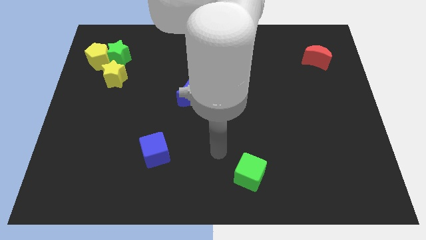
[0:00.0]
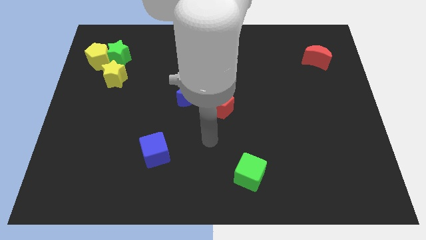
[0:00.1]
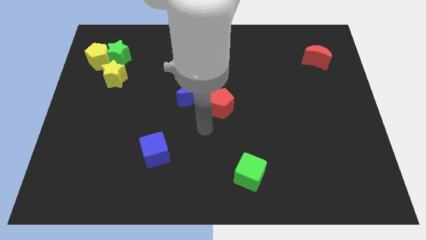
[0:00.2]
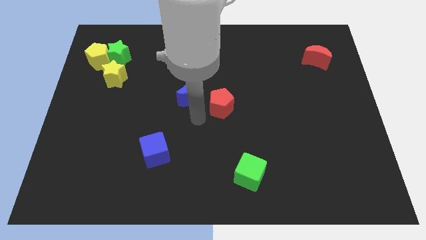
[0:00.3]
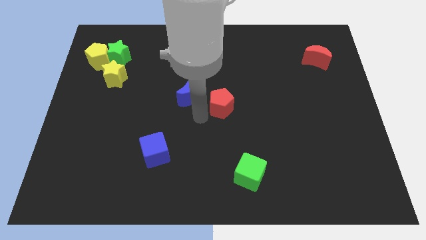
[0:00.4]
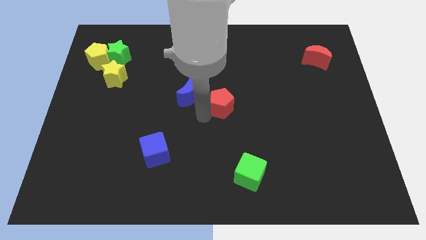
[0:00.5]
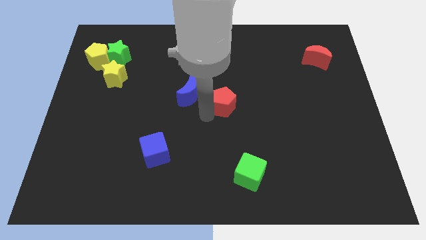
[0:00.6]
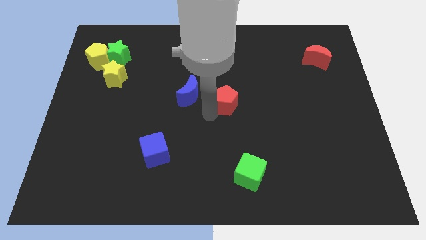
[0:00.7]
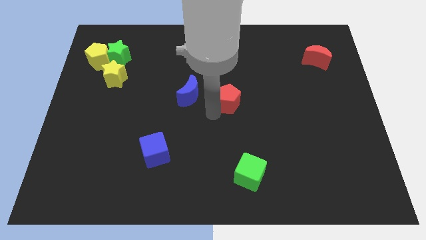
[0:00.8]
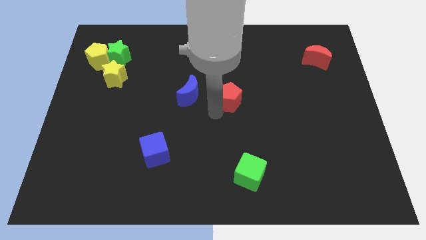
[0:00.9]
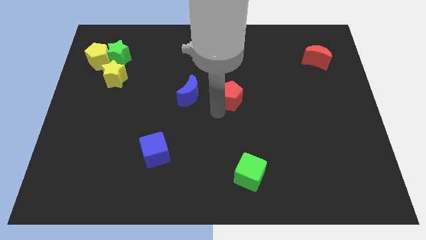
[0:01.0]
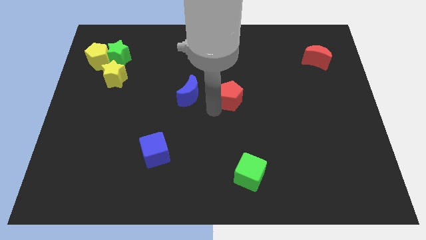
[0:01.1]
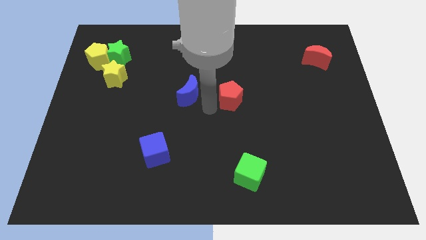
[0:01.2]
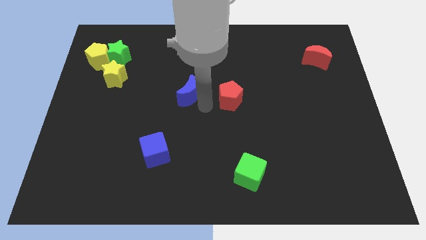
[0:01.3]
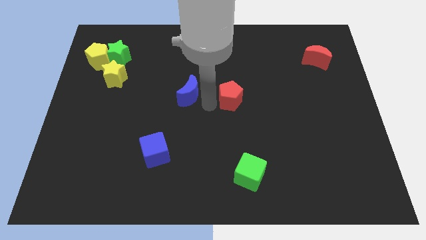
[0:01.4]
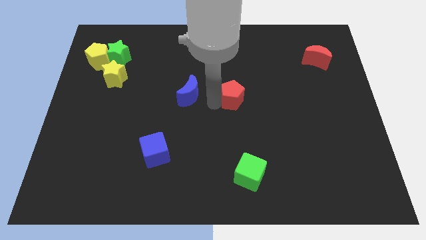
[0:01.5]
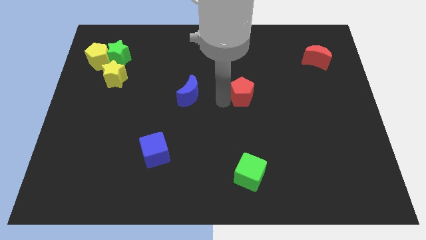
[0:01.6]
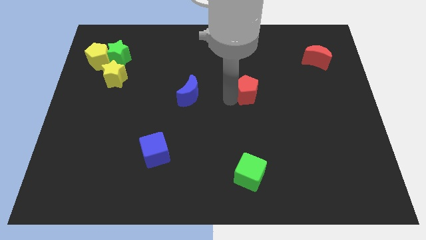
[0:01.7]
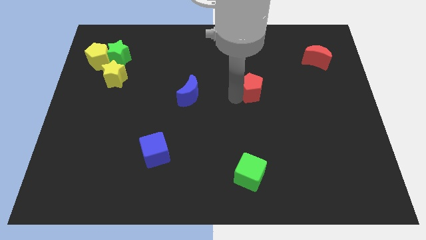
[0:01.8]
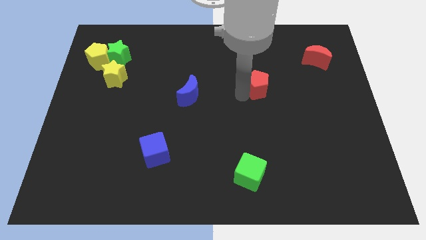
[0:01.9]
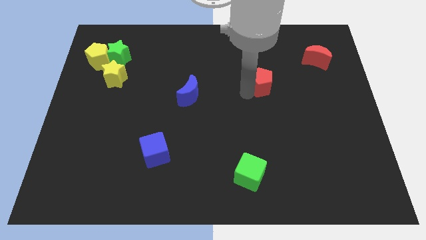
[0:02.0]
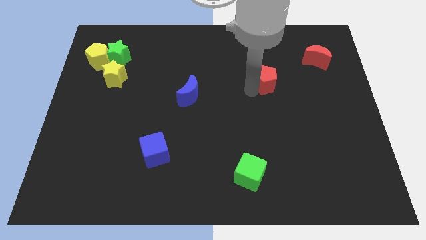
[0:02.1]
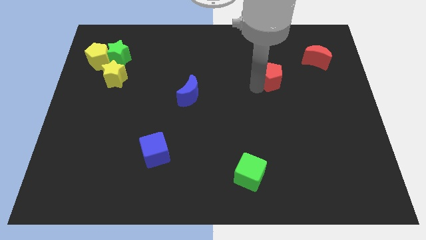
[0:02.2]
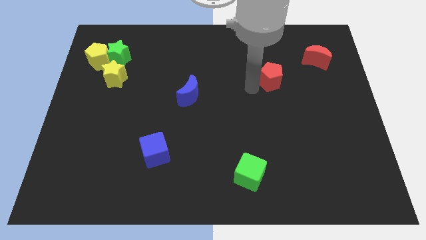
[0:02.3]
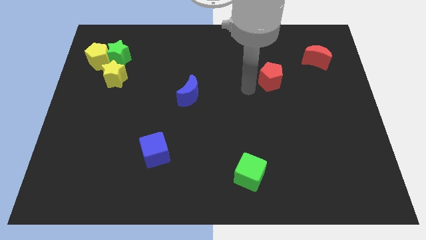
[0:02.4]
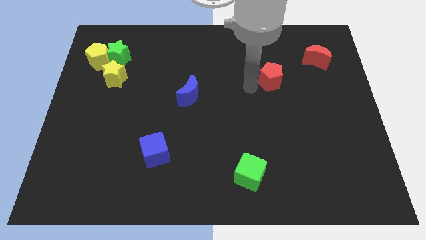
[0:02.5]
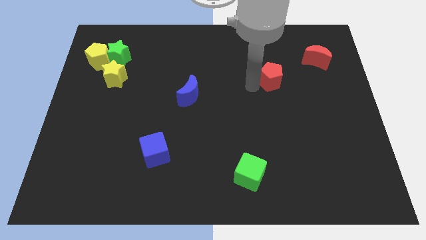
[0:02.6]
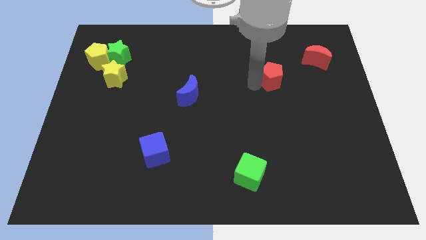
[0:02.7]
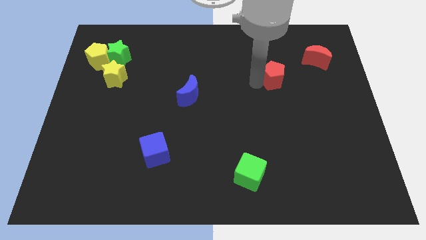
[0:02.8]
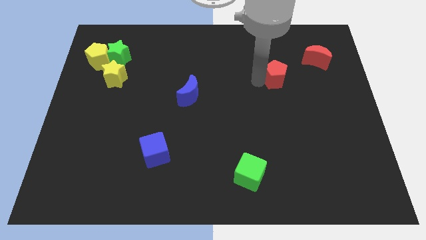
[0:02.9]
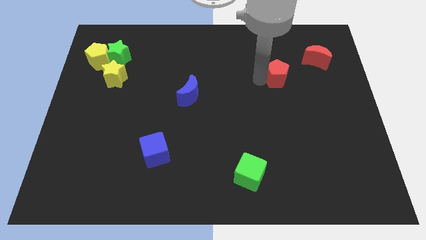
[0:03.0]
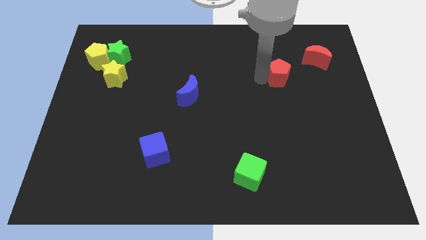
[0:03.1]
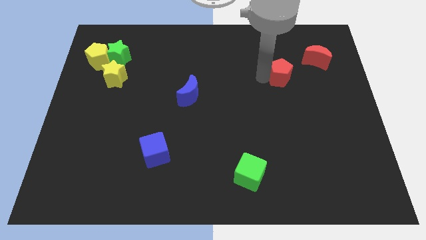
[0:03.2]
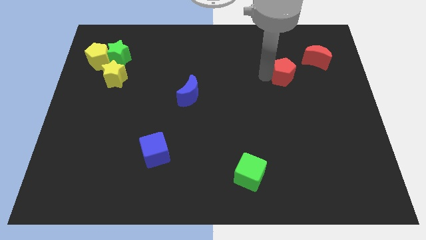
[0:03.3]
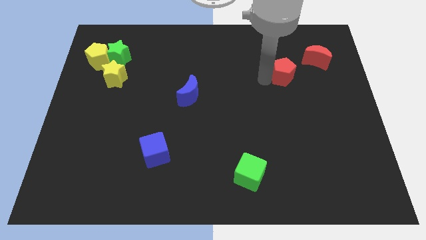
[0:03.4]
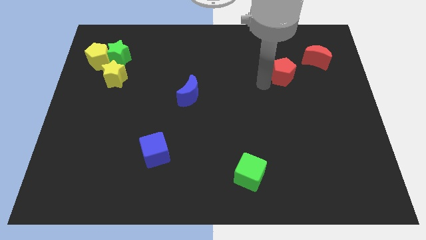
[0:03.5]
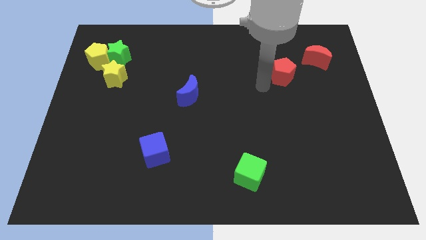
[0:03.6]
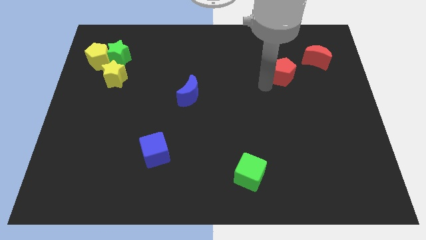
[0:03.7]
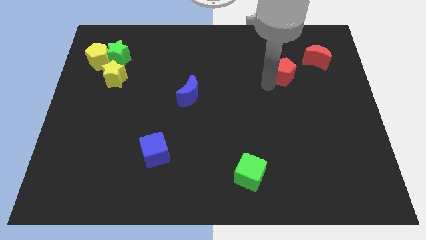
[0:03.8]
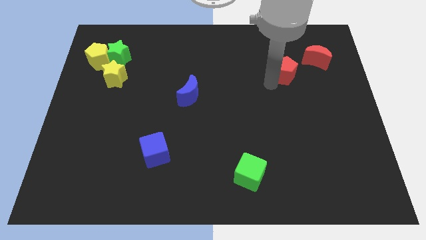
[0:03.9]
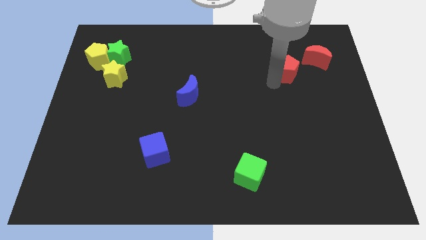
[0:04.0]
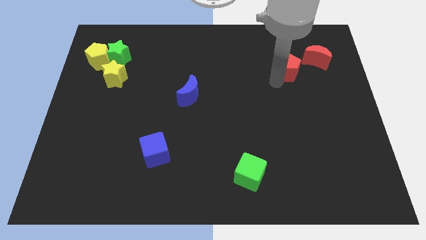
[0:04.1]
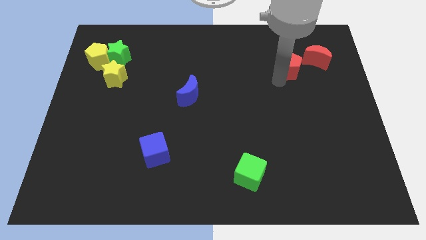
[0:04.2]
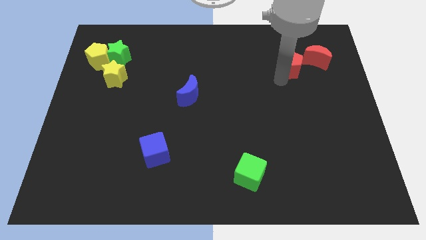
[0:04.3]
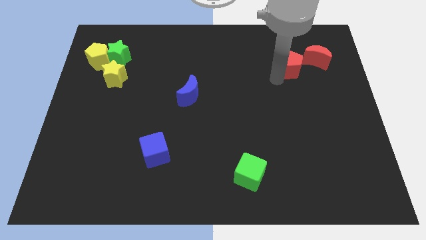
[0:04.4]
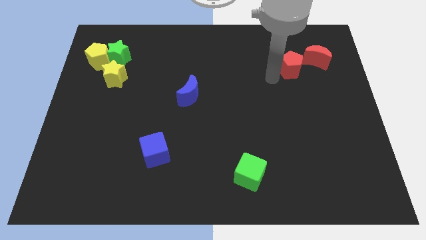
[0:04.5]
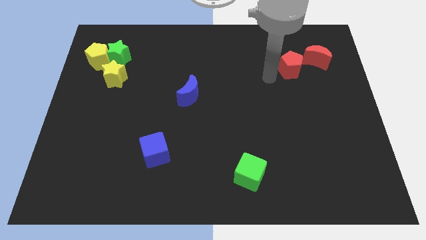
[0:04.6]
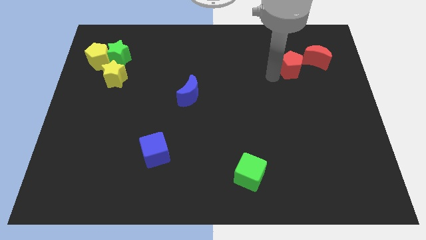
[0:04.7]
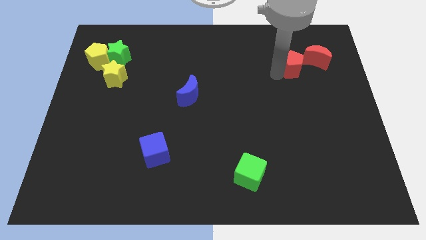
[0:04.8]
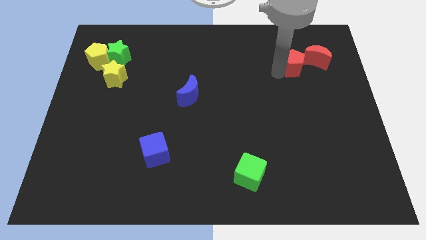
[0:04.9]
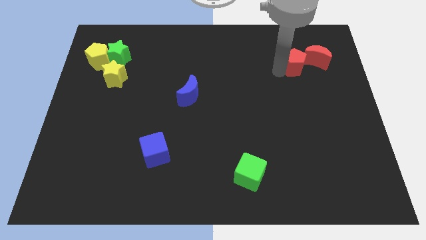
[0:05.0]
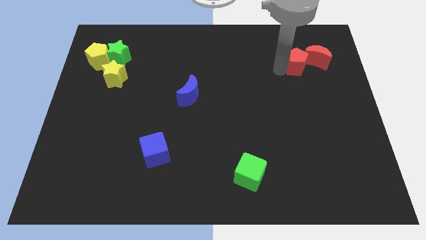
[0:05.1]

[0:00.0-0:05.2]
slide the red pentagon to the red moon

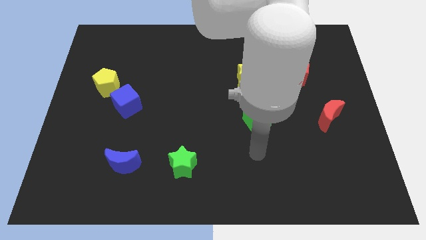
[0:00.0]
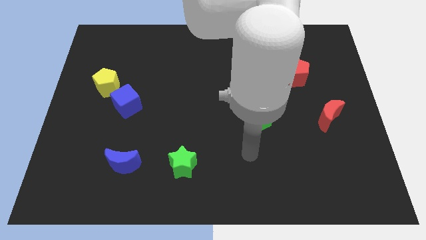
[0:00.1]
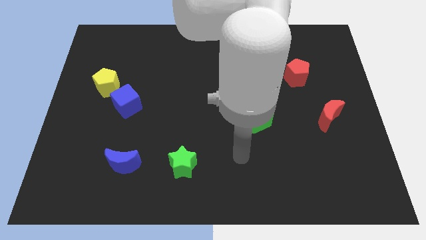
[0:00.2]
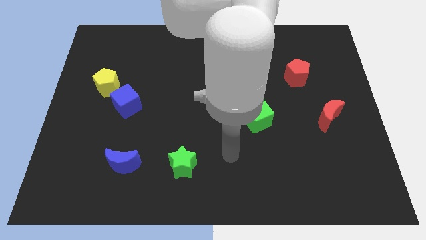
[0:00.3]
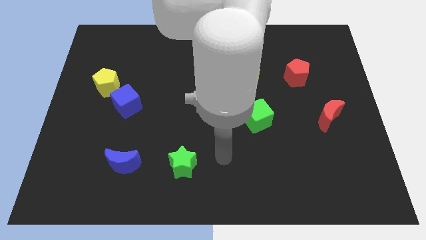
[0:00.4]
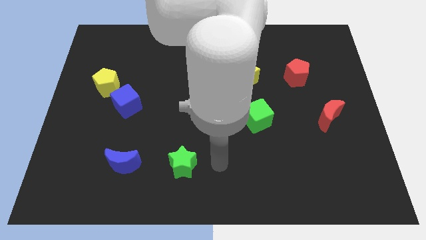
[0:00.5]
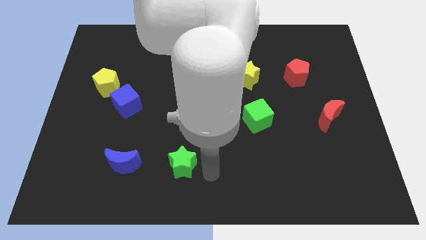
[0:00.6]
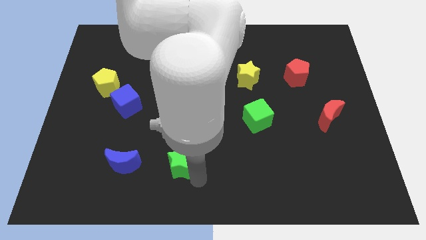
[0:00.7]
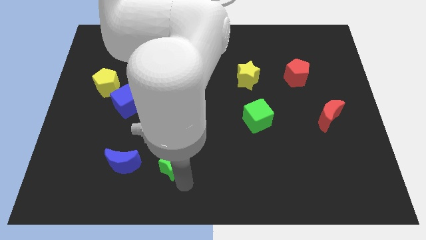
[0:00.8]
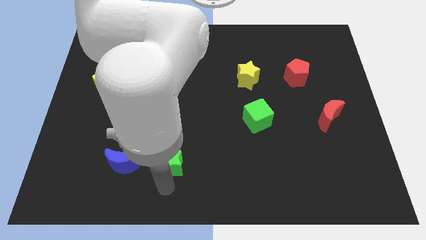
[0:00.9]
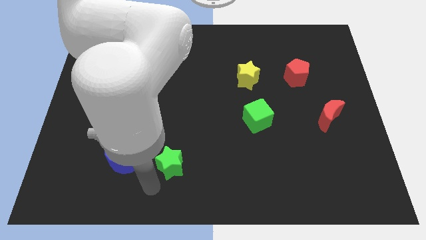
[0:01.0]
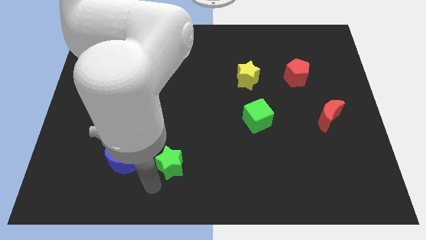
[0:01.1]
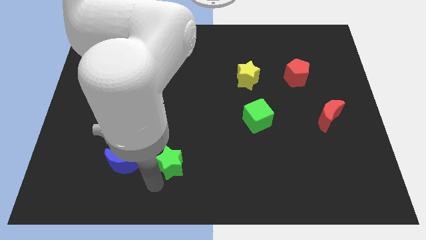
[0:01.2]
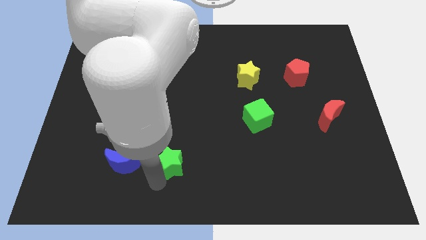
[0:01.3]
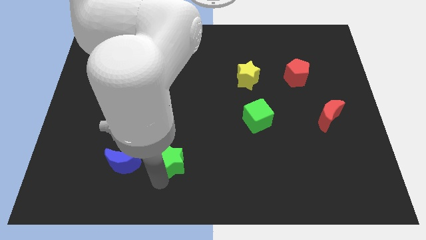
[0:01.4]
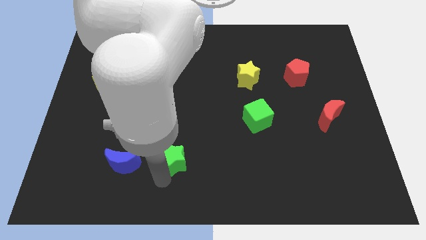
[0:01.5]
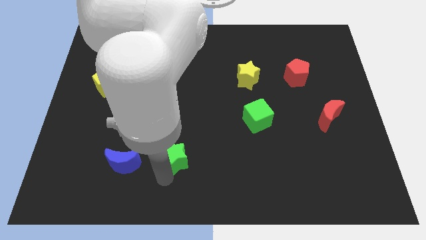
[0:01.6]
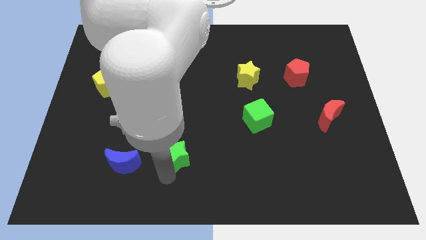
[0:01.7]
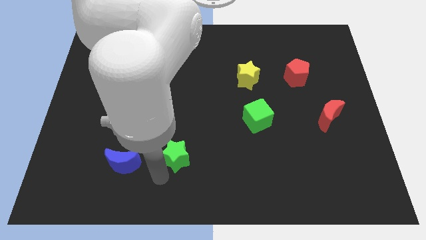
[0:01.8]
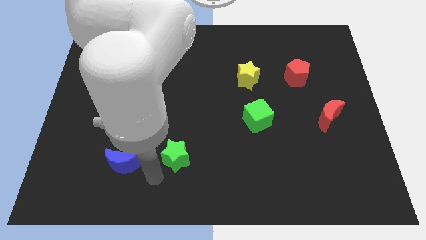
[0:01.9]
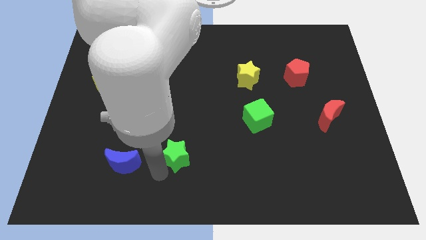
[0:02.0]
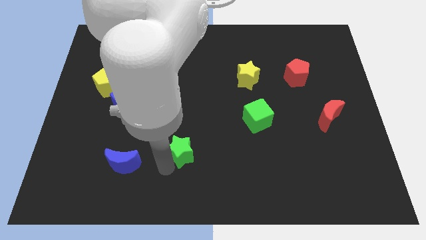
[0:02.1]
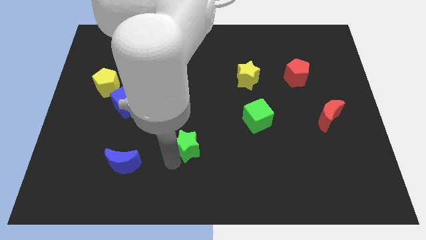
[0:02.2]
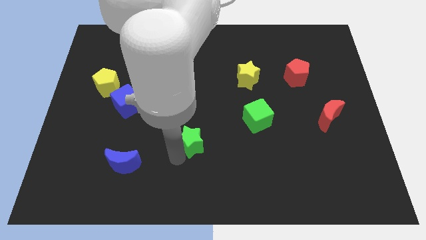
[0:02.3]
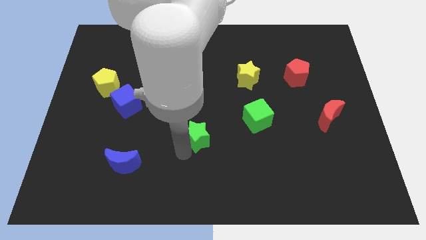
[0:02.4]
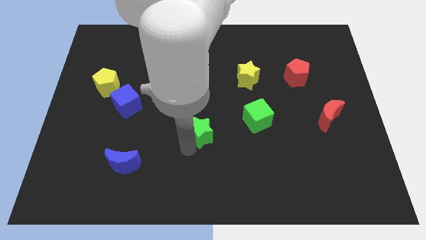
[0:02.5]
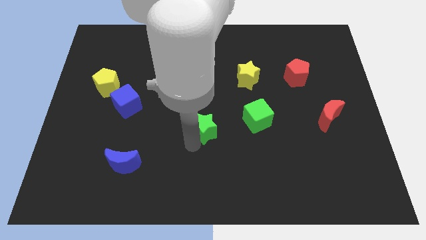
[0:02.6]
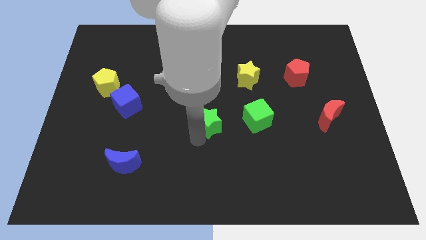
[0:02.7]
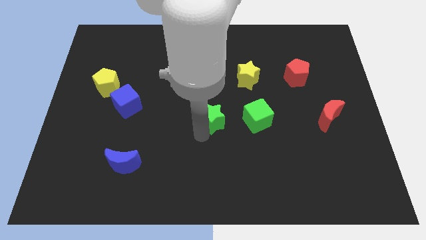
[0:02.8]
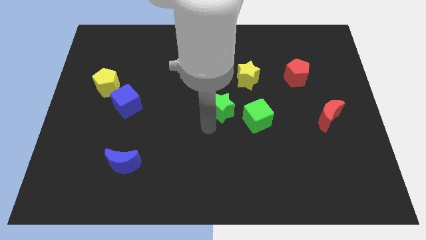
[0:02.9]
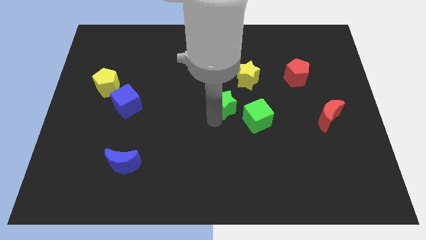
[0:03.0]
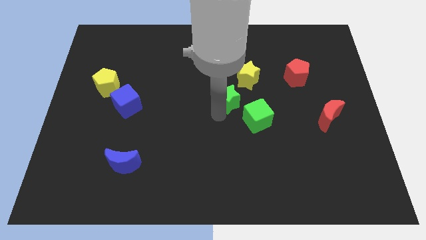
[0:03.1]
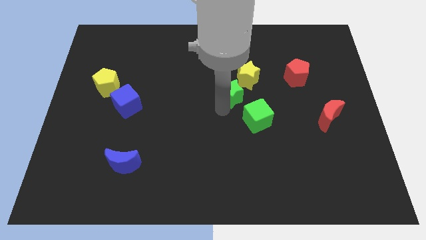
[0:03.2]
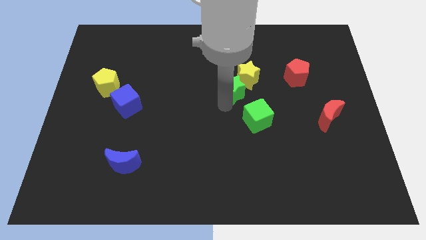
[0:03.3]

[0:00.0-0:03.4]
push the green star to the yellow star
